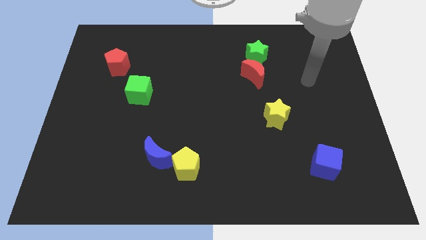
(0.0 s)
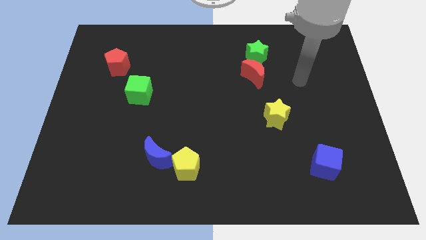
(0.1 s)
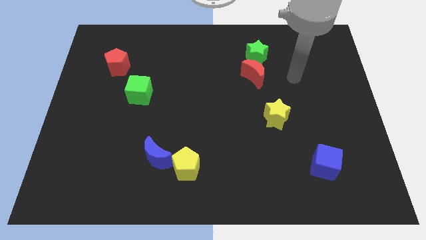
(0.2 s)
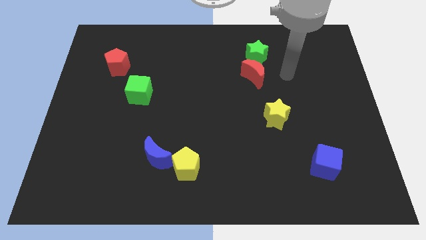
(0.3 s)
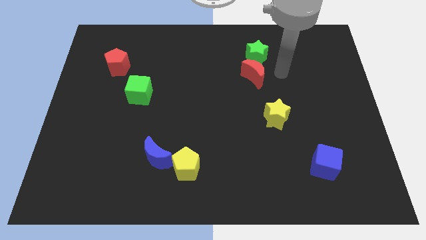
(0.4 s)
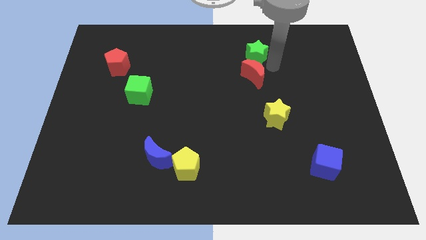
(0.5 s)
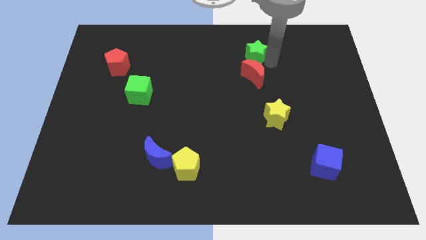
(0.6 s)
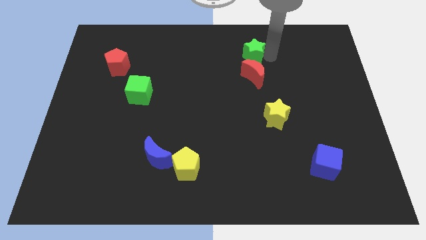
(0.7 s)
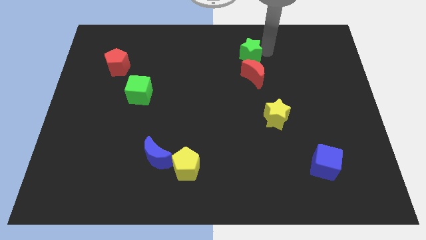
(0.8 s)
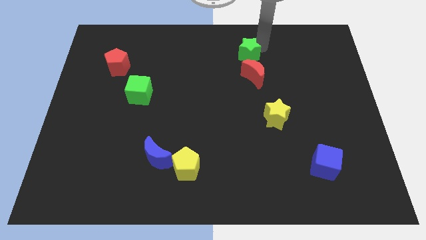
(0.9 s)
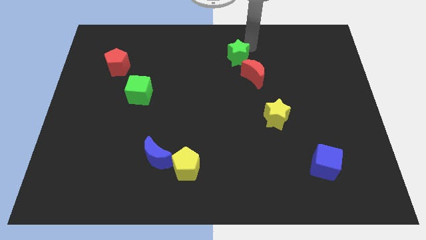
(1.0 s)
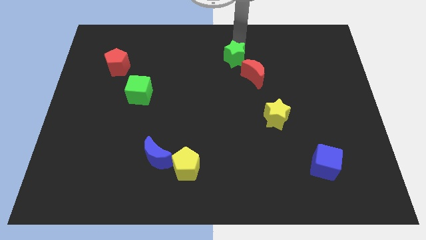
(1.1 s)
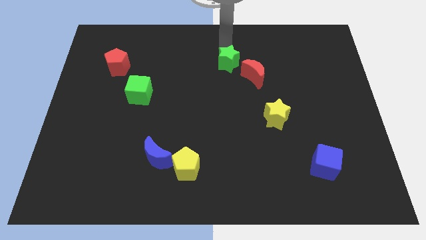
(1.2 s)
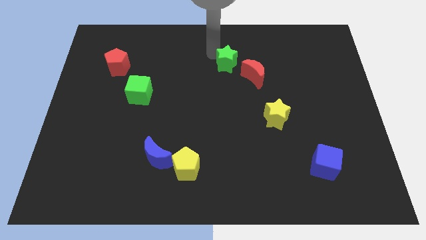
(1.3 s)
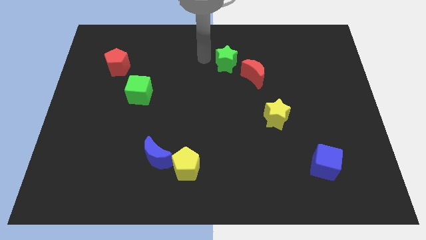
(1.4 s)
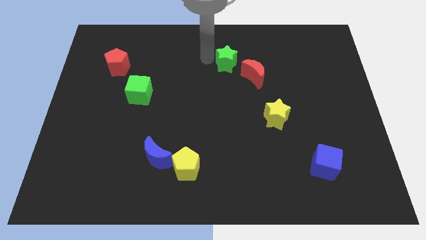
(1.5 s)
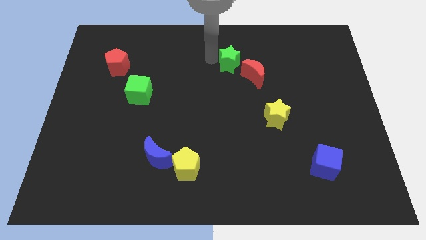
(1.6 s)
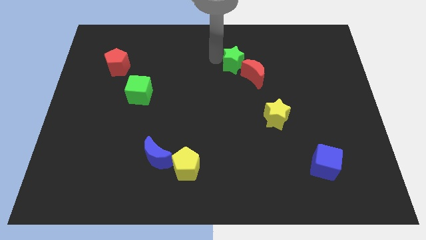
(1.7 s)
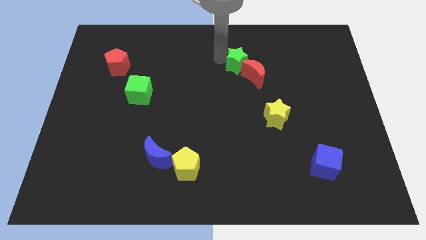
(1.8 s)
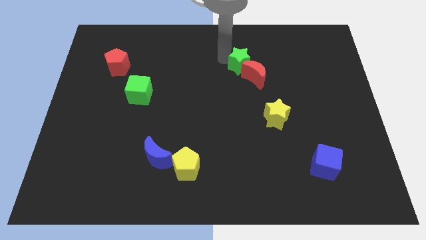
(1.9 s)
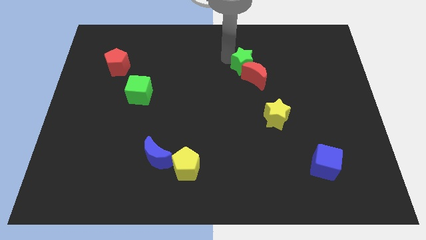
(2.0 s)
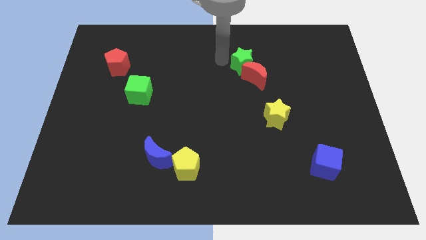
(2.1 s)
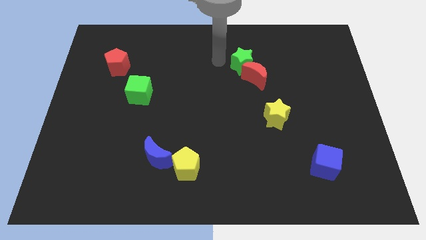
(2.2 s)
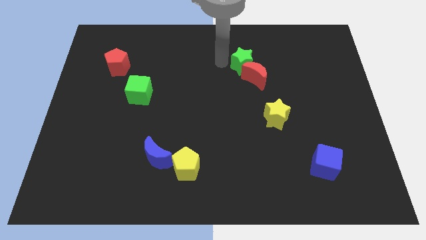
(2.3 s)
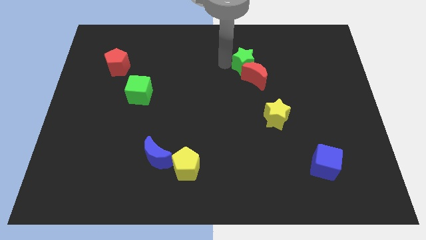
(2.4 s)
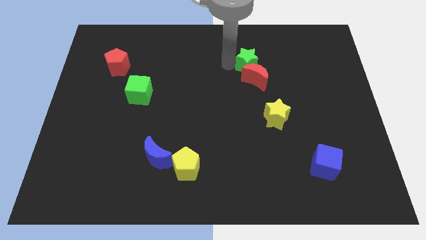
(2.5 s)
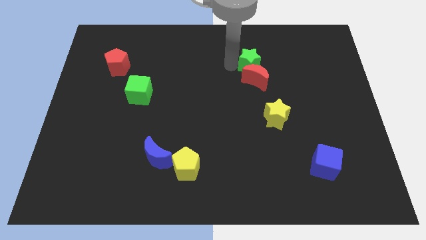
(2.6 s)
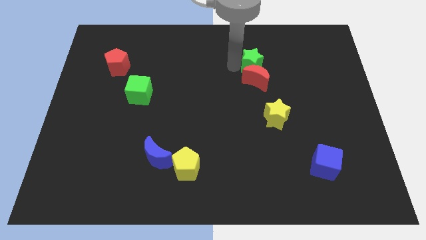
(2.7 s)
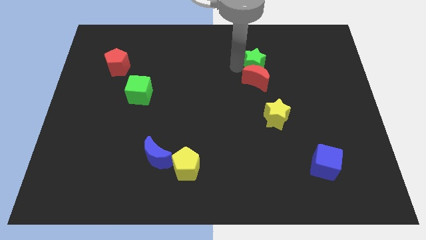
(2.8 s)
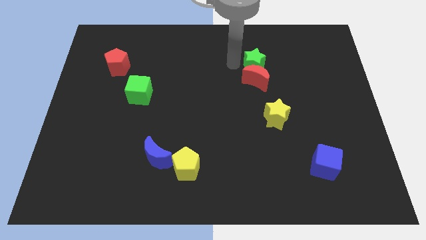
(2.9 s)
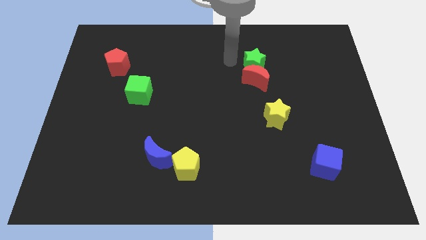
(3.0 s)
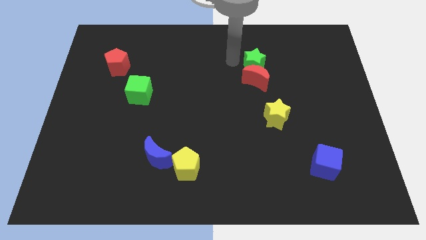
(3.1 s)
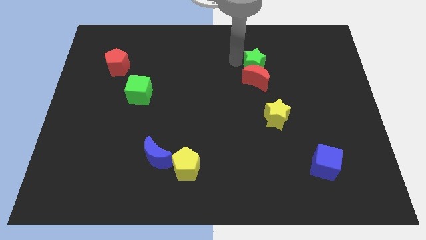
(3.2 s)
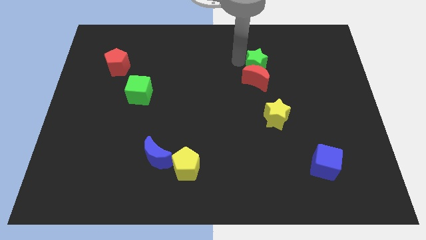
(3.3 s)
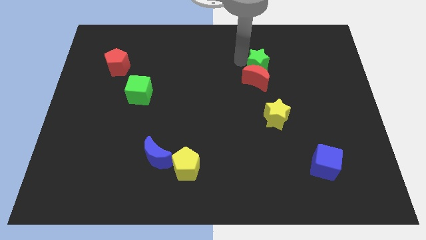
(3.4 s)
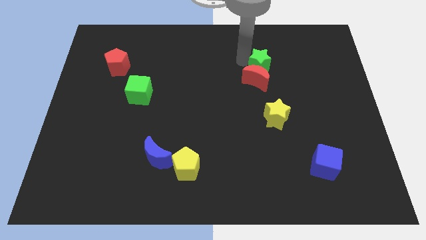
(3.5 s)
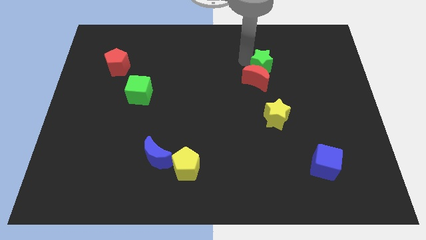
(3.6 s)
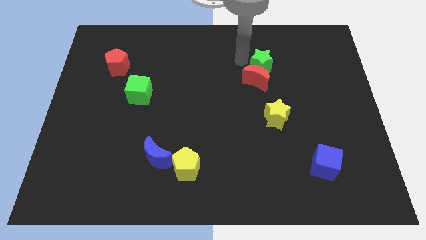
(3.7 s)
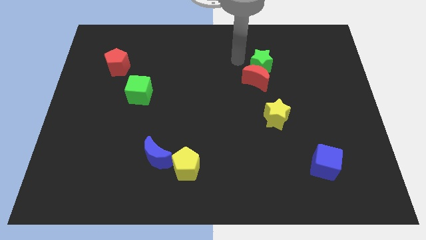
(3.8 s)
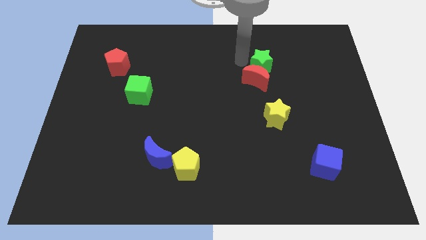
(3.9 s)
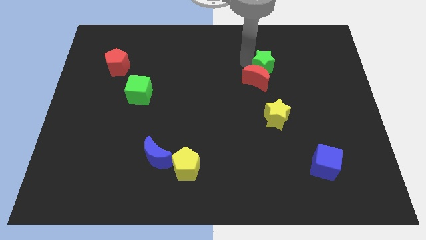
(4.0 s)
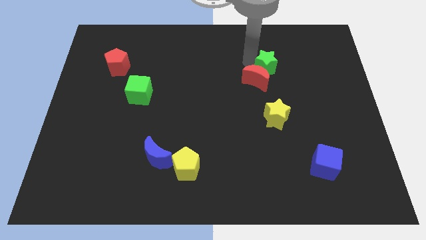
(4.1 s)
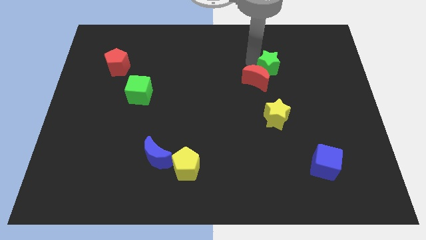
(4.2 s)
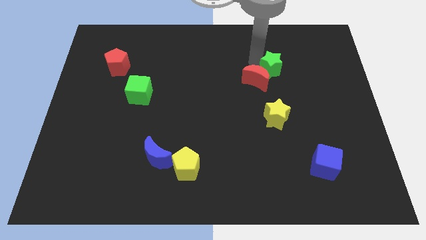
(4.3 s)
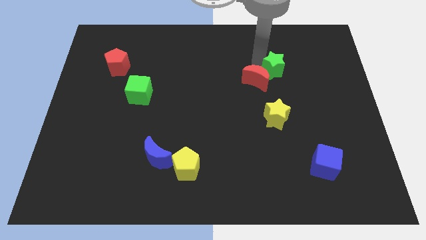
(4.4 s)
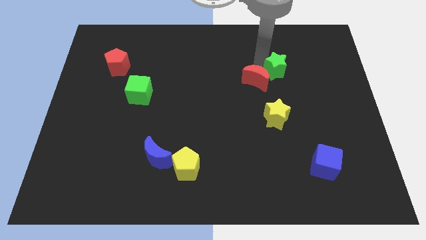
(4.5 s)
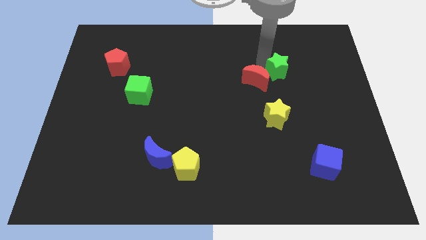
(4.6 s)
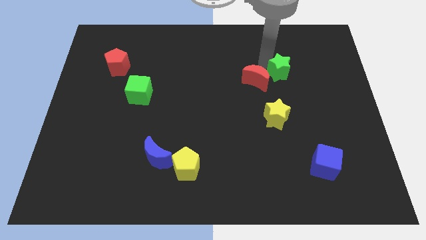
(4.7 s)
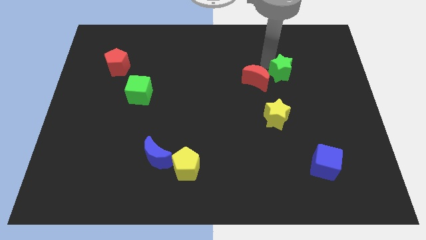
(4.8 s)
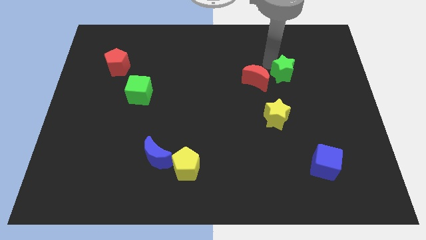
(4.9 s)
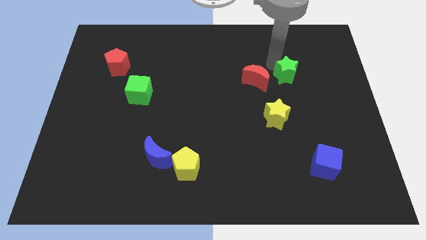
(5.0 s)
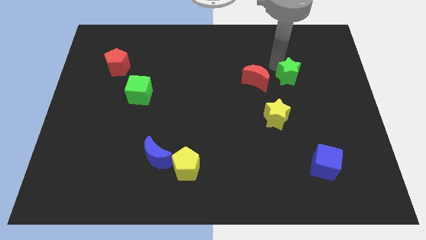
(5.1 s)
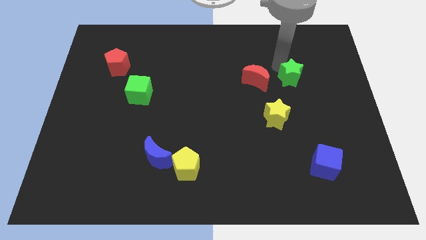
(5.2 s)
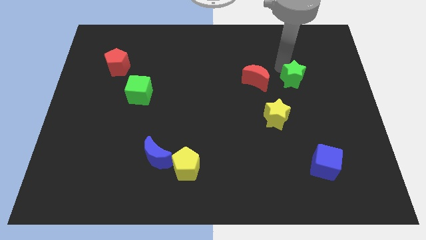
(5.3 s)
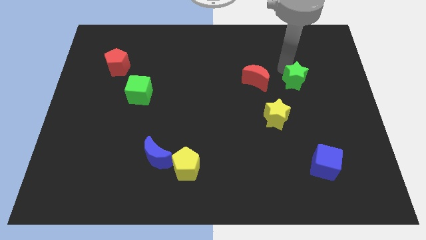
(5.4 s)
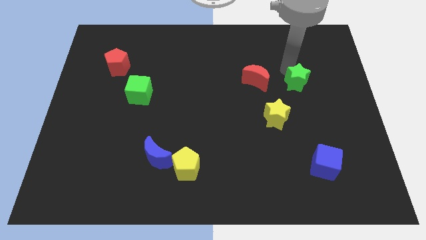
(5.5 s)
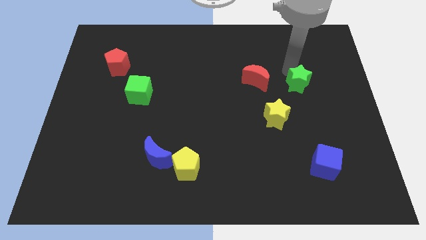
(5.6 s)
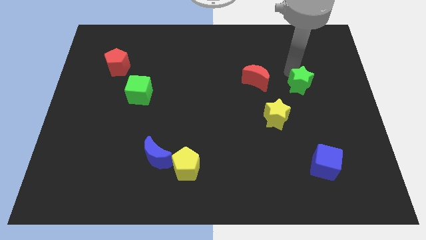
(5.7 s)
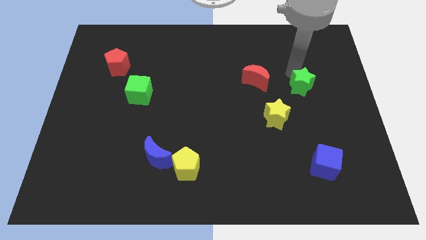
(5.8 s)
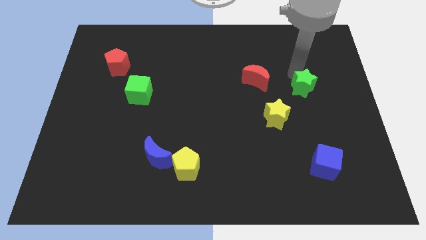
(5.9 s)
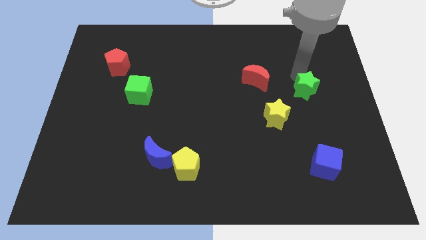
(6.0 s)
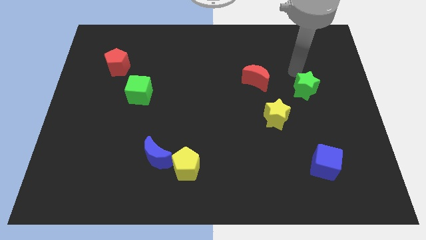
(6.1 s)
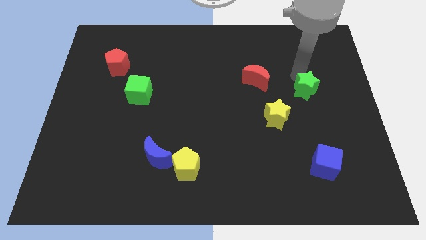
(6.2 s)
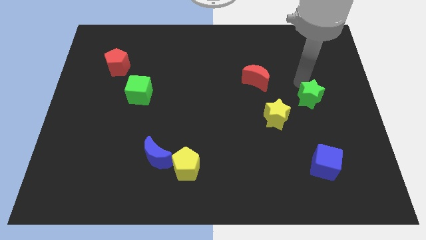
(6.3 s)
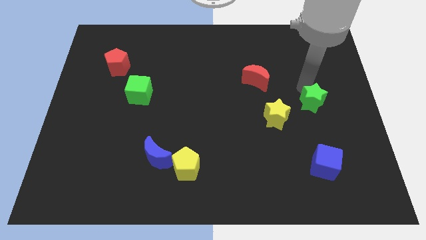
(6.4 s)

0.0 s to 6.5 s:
move the green star just right of the yellow star

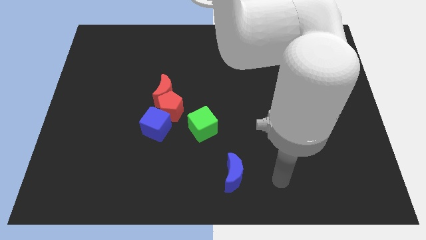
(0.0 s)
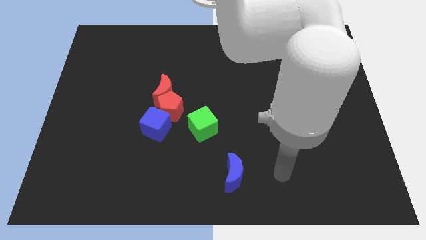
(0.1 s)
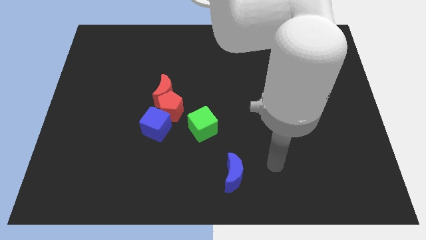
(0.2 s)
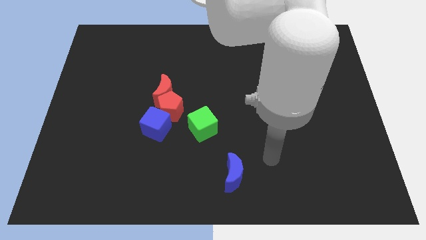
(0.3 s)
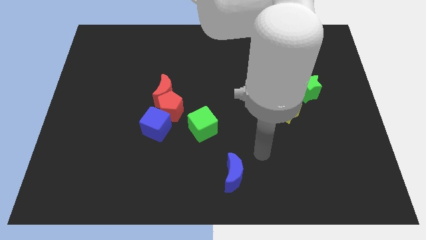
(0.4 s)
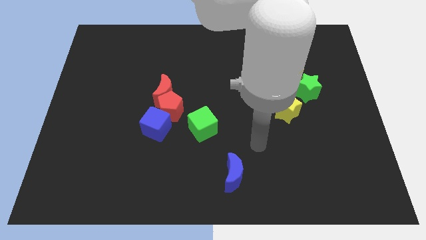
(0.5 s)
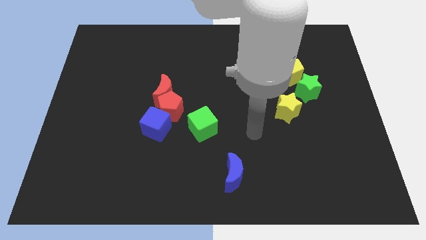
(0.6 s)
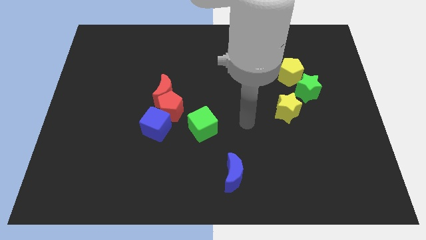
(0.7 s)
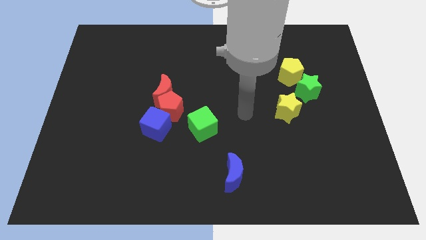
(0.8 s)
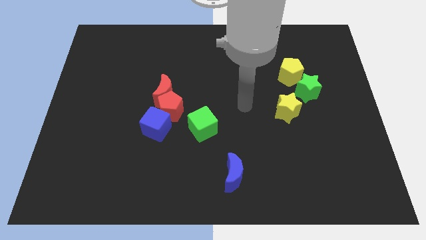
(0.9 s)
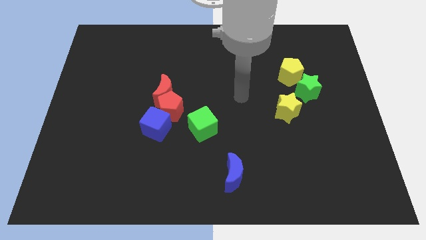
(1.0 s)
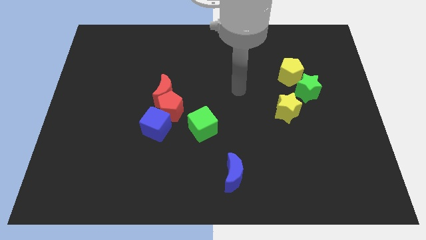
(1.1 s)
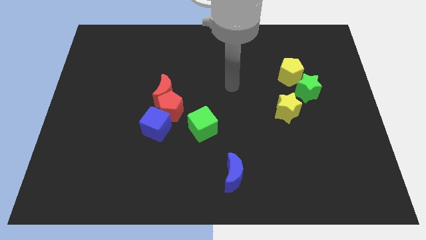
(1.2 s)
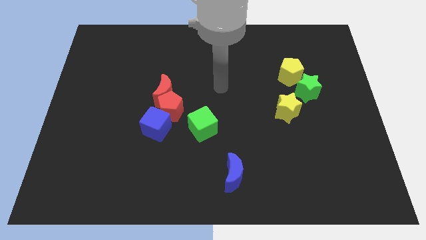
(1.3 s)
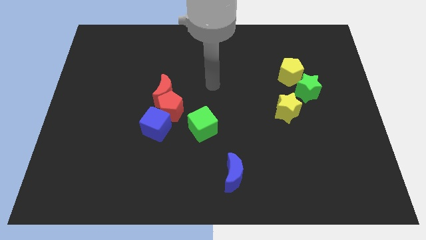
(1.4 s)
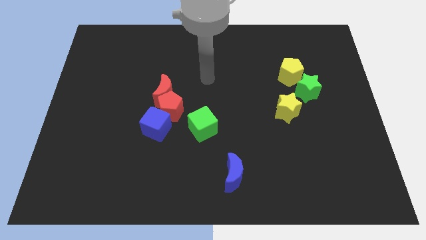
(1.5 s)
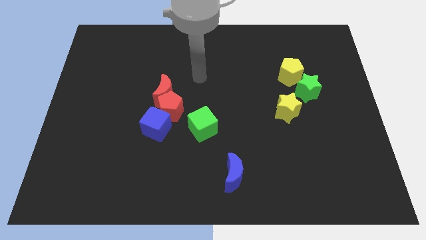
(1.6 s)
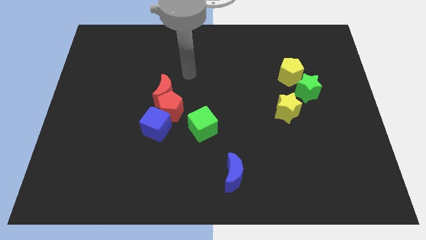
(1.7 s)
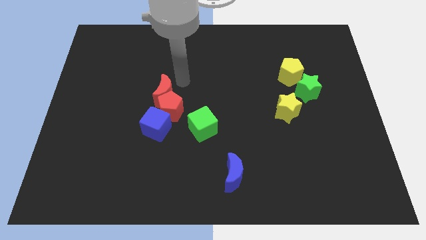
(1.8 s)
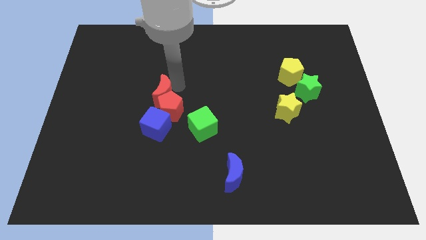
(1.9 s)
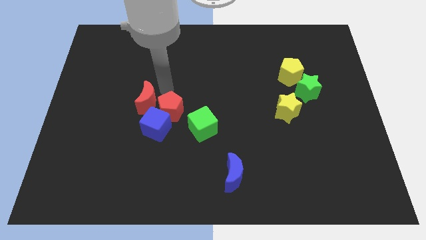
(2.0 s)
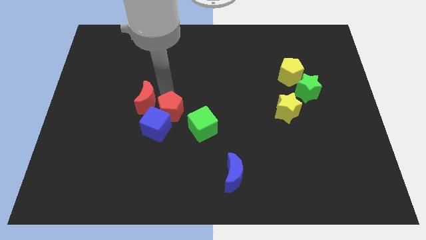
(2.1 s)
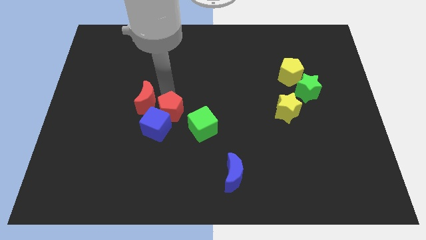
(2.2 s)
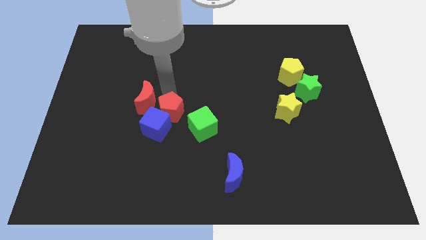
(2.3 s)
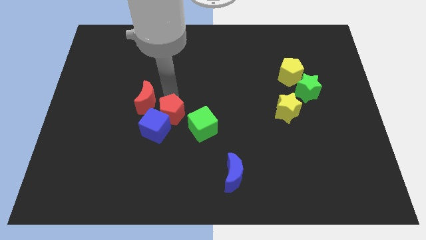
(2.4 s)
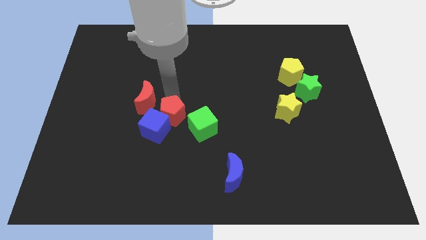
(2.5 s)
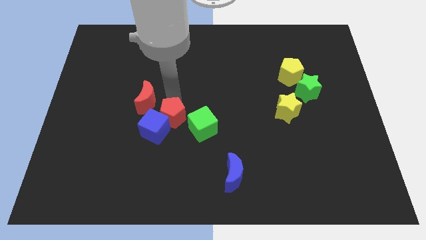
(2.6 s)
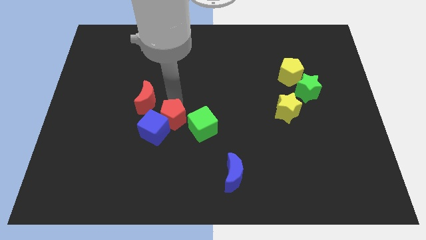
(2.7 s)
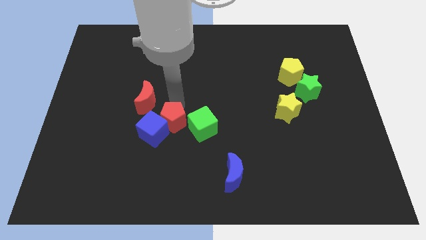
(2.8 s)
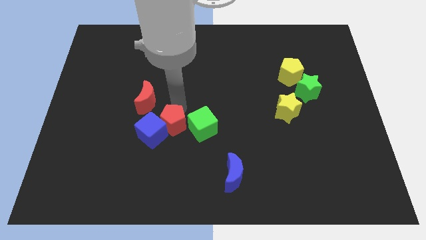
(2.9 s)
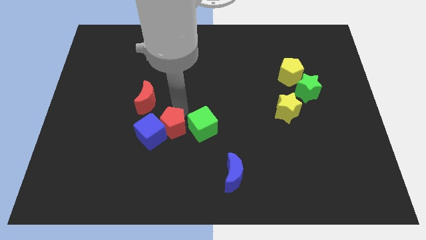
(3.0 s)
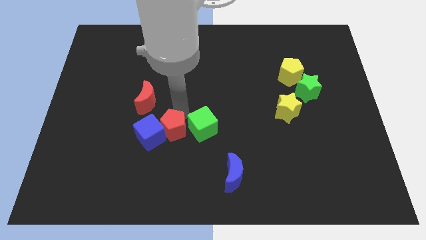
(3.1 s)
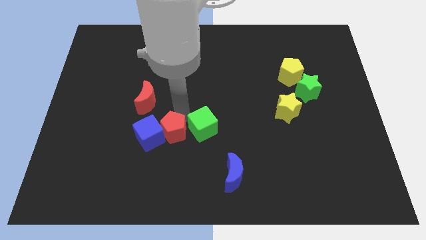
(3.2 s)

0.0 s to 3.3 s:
move the red pentagon to the bottom right of the blue cube
